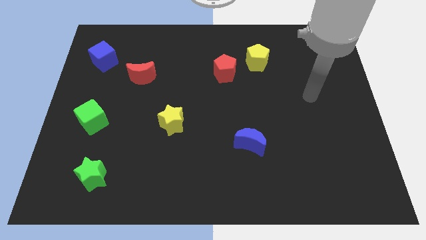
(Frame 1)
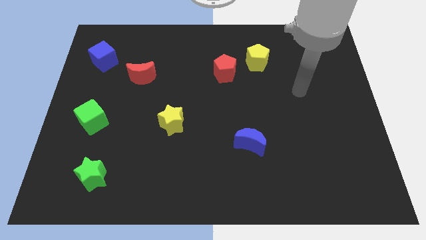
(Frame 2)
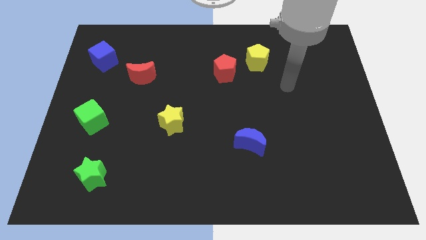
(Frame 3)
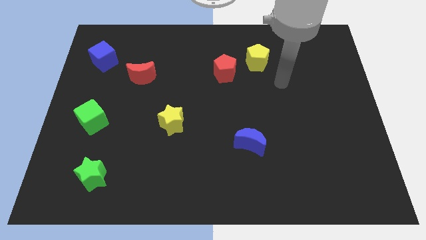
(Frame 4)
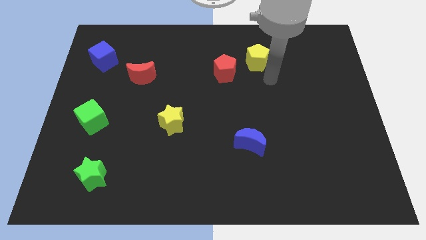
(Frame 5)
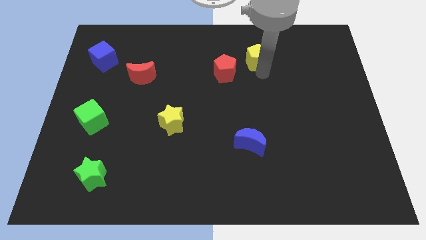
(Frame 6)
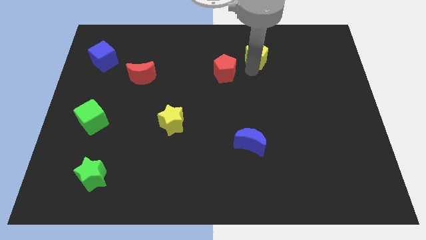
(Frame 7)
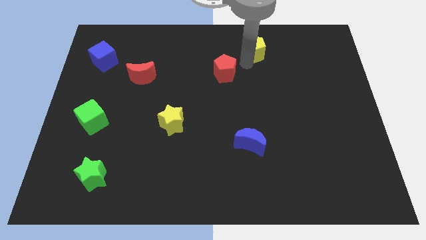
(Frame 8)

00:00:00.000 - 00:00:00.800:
separate the red pentagon from the yellow pentagon

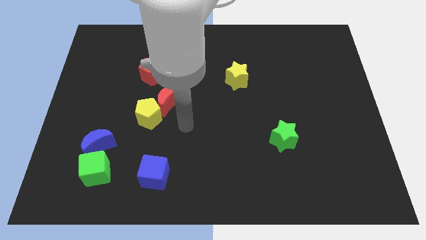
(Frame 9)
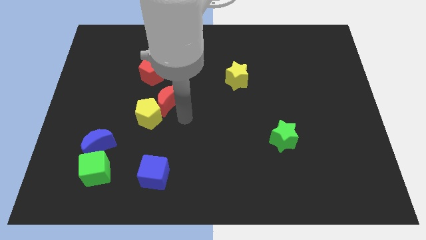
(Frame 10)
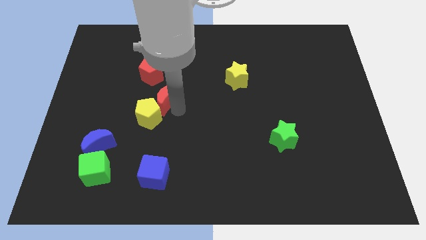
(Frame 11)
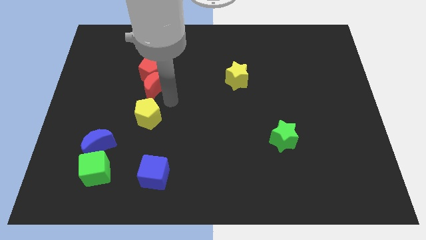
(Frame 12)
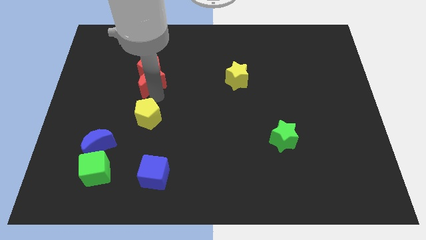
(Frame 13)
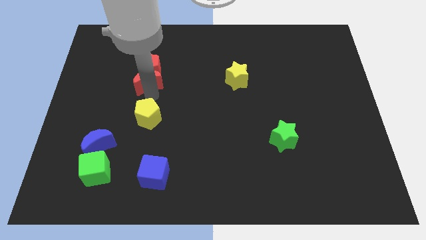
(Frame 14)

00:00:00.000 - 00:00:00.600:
pull the yellow pentagon apart from the red moon

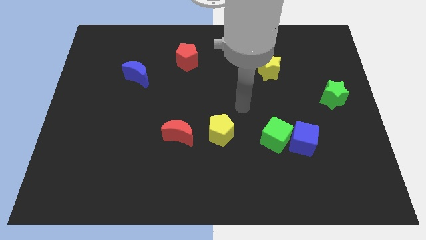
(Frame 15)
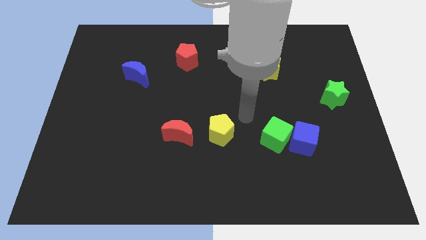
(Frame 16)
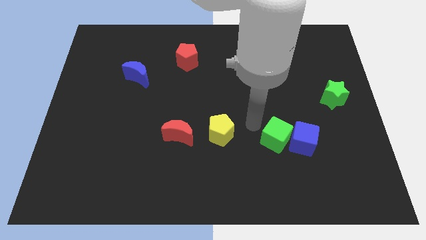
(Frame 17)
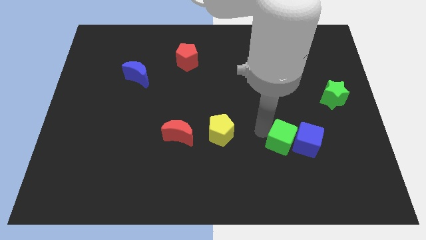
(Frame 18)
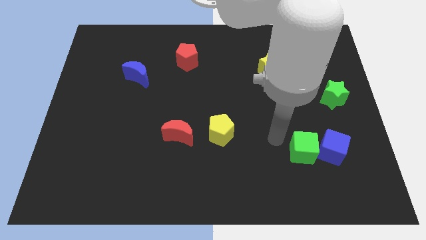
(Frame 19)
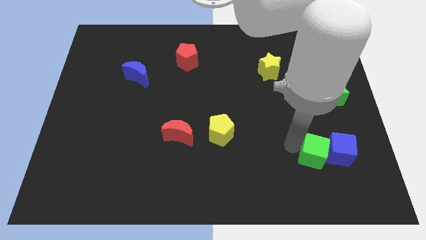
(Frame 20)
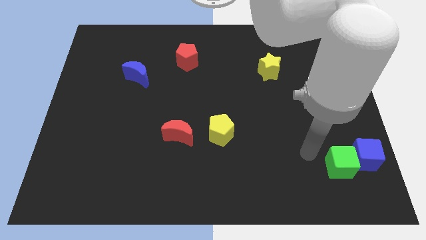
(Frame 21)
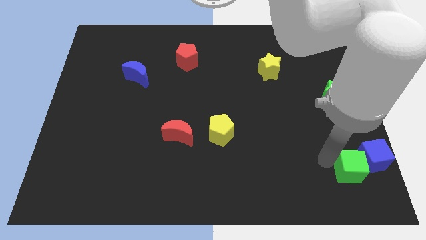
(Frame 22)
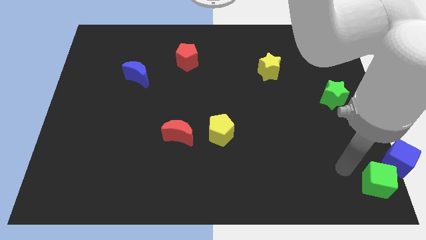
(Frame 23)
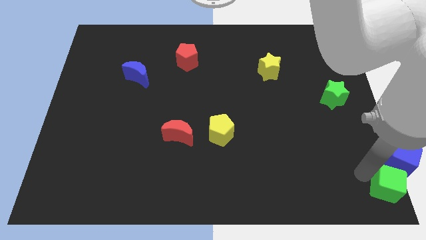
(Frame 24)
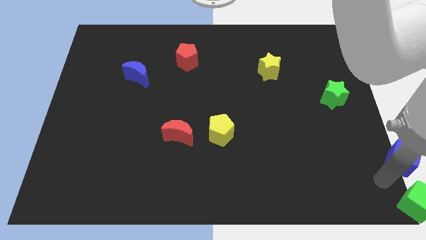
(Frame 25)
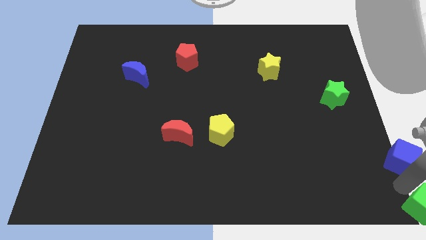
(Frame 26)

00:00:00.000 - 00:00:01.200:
separate the blue cube from the green cube

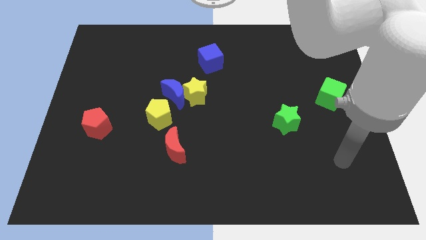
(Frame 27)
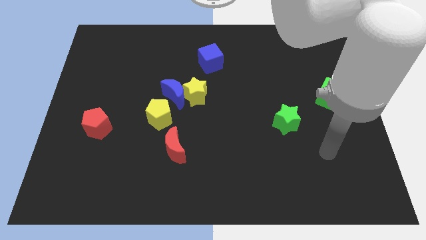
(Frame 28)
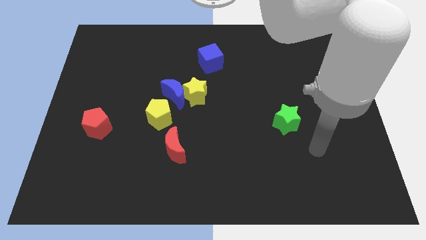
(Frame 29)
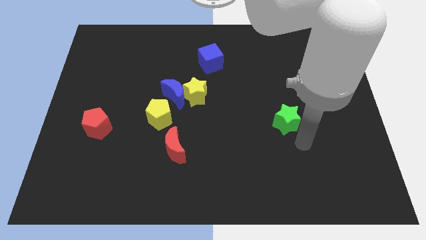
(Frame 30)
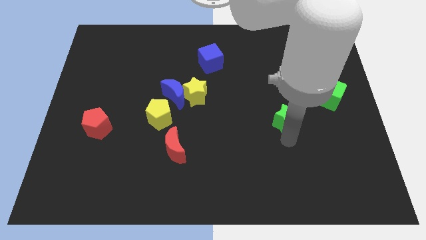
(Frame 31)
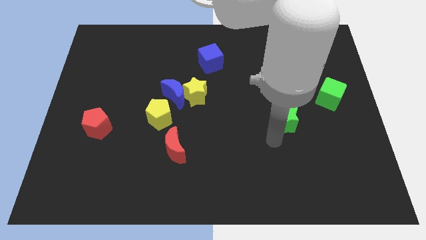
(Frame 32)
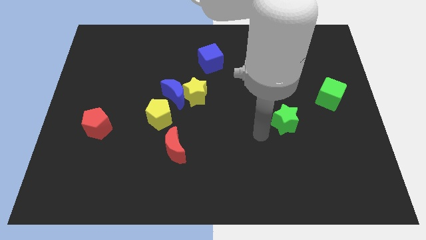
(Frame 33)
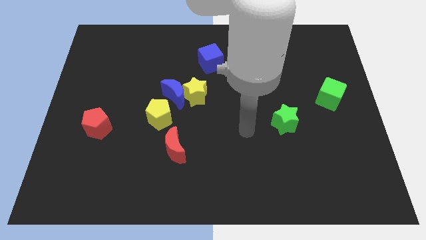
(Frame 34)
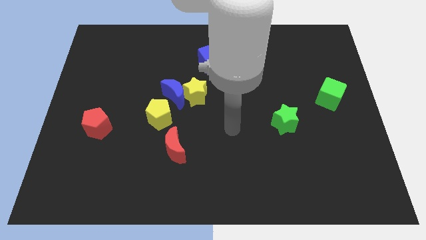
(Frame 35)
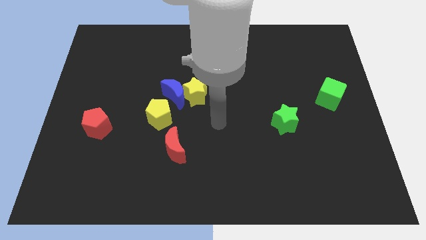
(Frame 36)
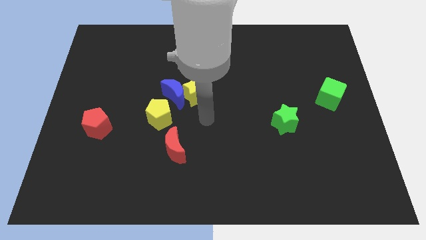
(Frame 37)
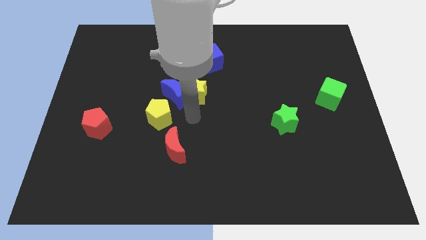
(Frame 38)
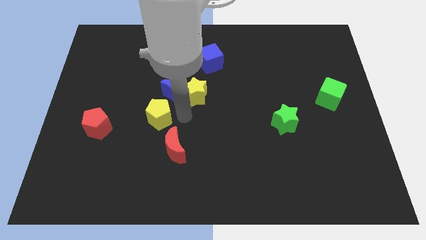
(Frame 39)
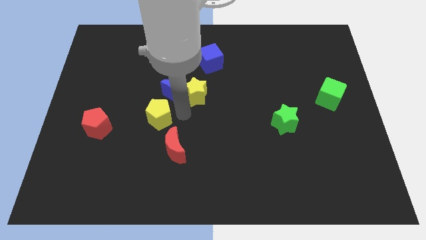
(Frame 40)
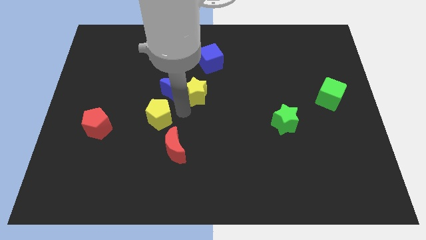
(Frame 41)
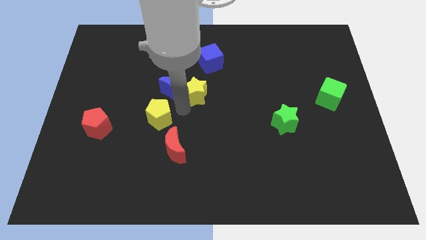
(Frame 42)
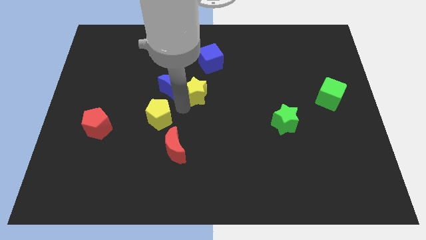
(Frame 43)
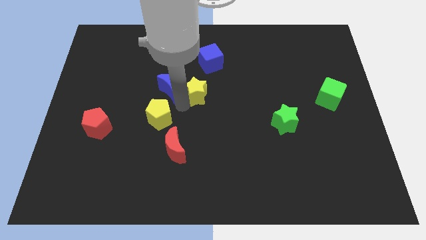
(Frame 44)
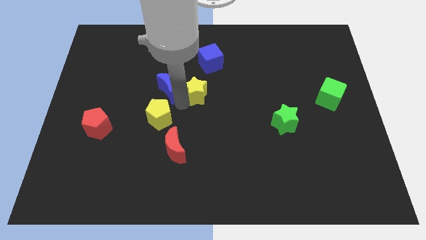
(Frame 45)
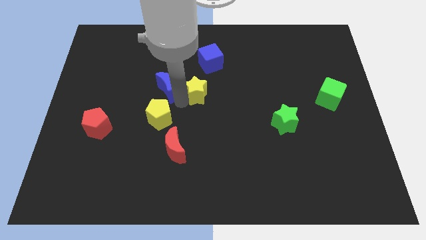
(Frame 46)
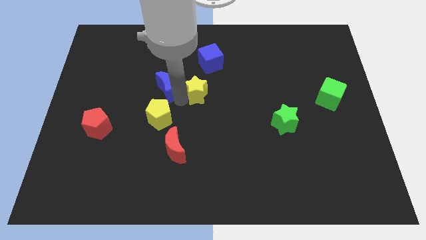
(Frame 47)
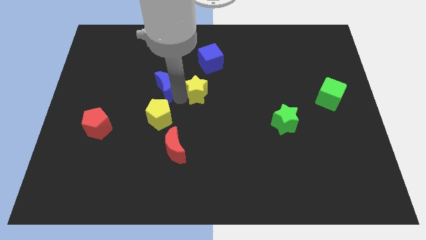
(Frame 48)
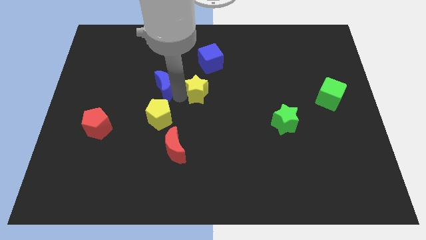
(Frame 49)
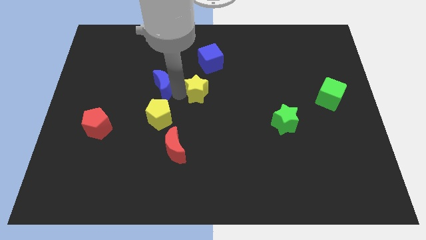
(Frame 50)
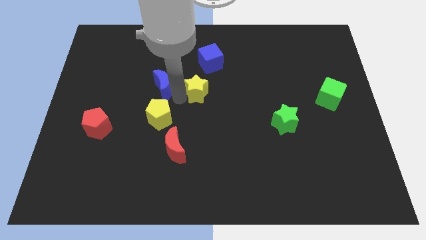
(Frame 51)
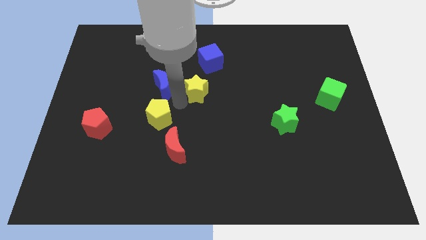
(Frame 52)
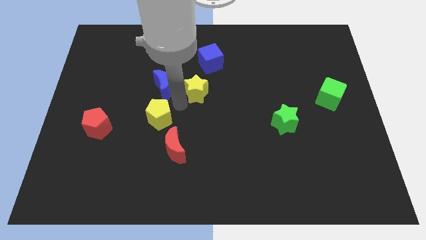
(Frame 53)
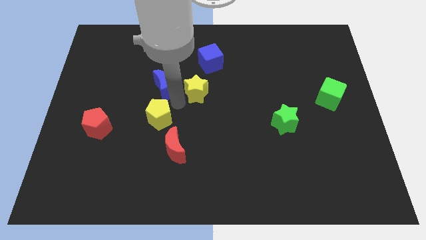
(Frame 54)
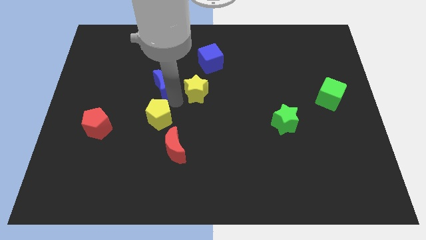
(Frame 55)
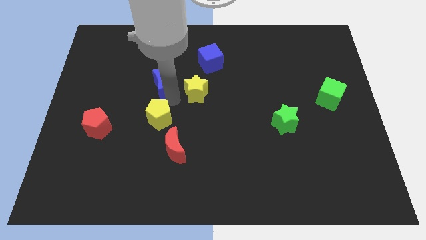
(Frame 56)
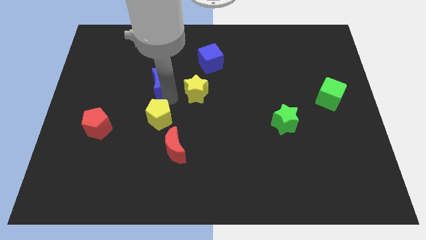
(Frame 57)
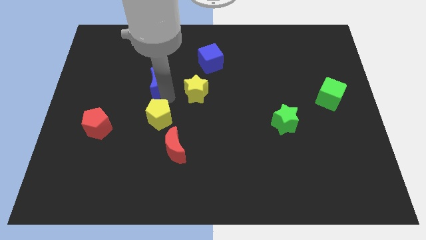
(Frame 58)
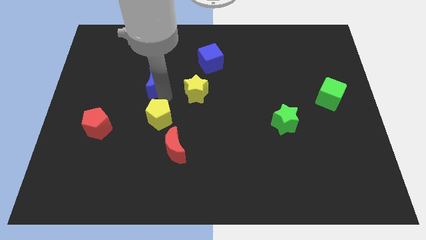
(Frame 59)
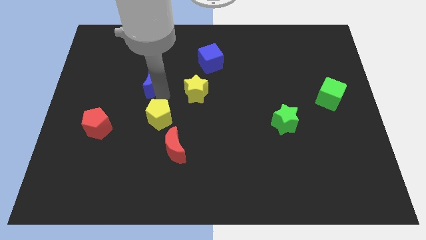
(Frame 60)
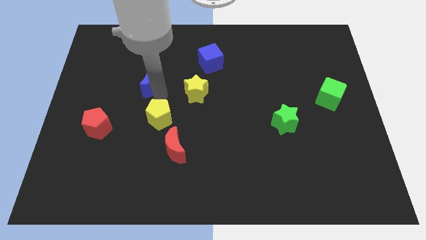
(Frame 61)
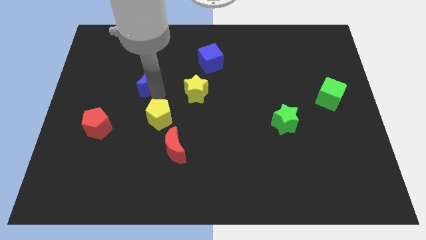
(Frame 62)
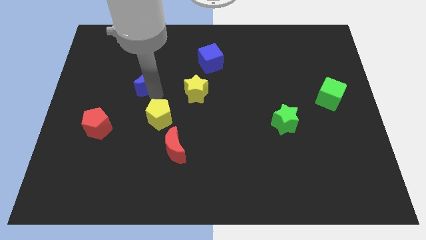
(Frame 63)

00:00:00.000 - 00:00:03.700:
move the blue moon away from the yellow star and yellow pentagon

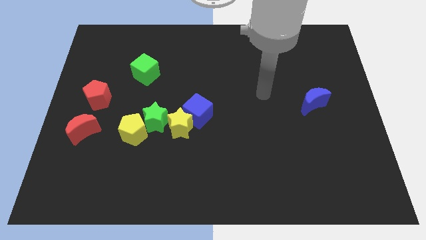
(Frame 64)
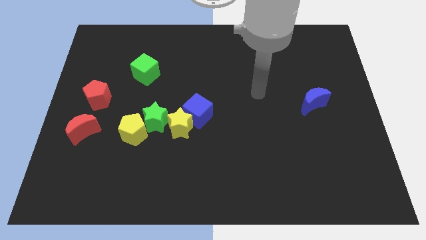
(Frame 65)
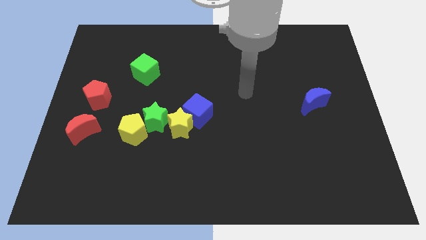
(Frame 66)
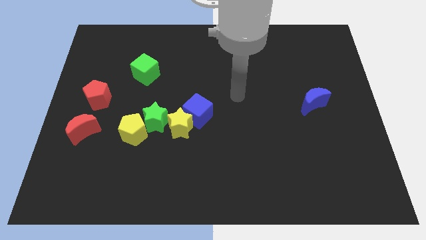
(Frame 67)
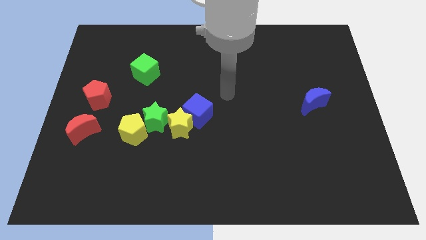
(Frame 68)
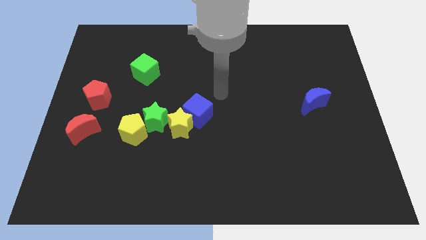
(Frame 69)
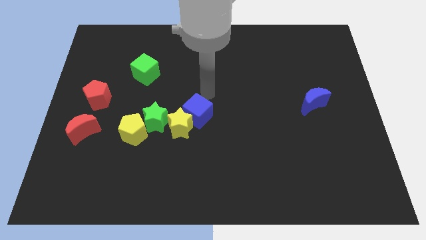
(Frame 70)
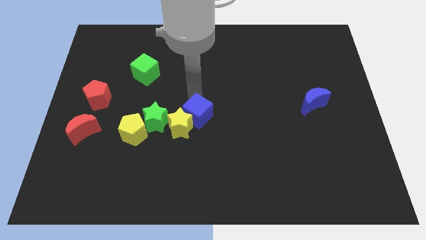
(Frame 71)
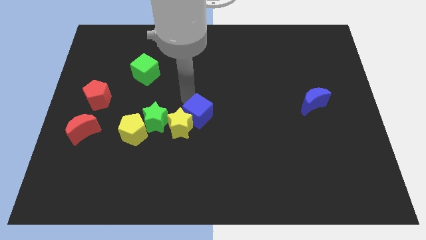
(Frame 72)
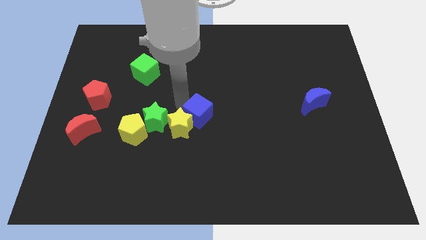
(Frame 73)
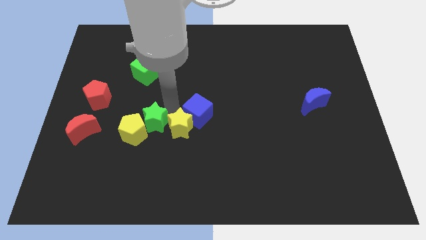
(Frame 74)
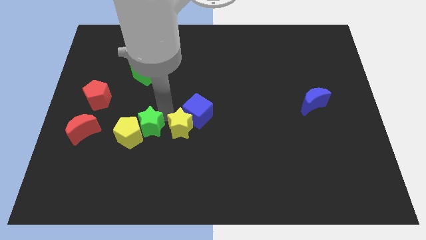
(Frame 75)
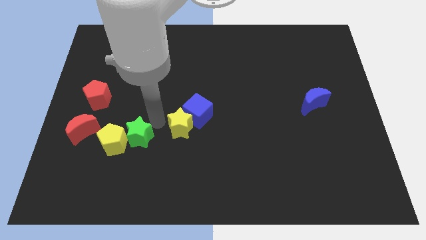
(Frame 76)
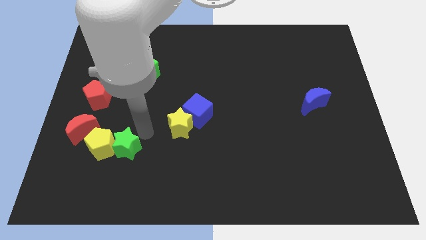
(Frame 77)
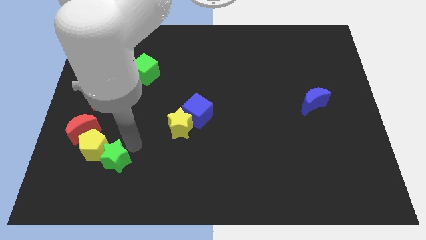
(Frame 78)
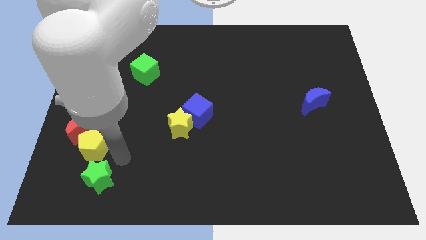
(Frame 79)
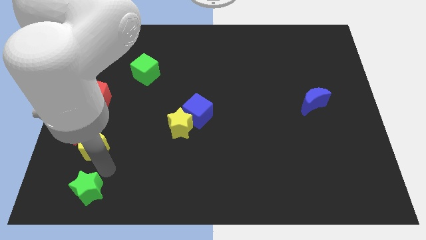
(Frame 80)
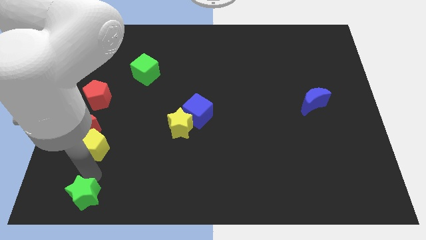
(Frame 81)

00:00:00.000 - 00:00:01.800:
move the yellow pentagon away from the green star

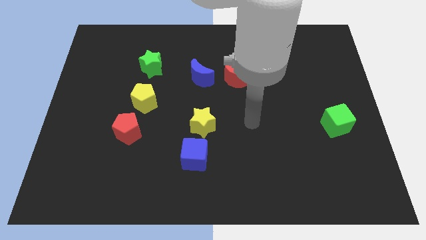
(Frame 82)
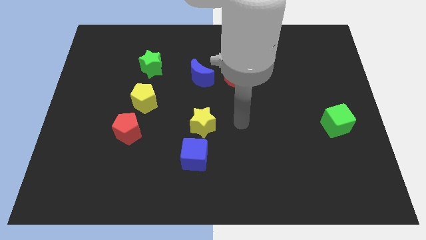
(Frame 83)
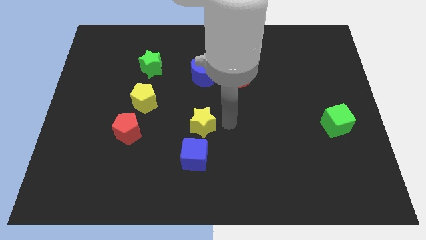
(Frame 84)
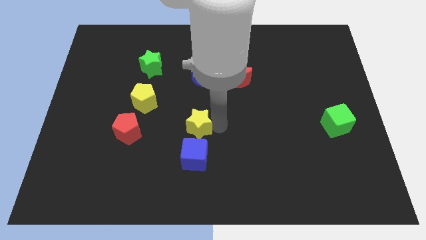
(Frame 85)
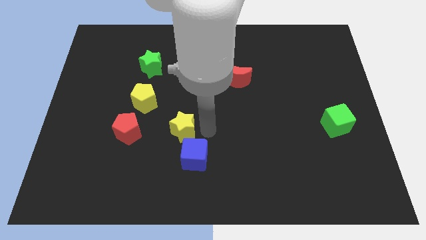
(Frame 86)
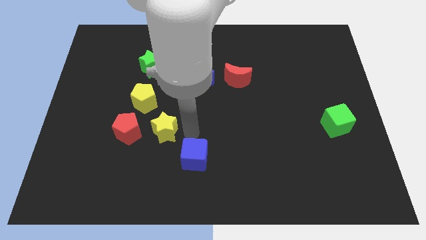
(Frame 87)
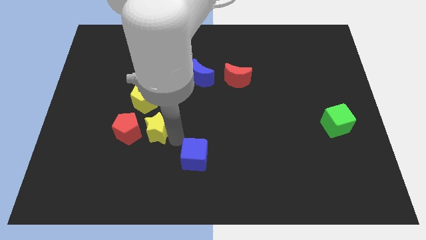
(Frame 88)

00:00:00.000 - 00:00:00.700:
pull the blue cube apart from the yellow star

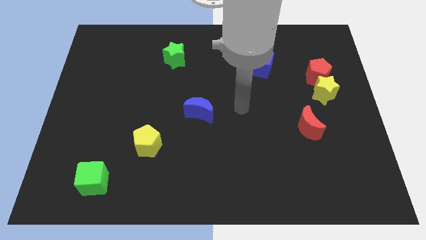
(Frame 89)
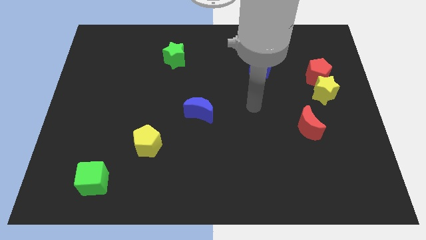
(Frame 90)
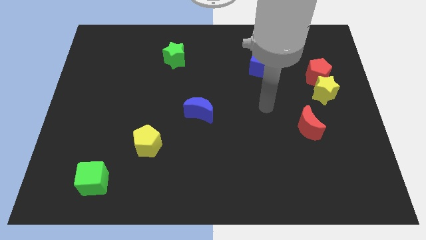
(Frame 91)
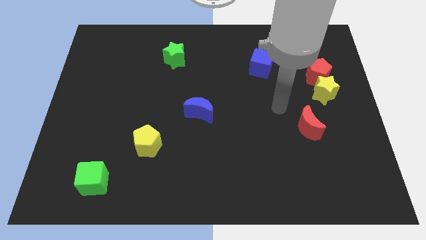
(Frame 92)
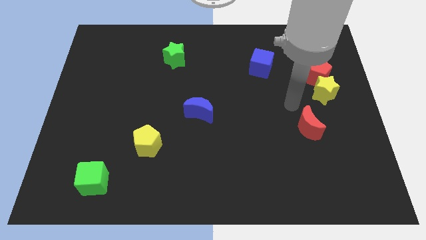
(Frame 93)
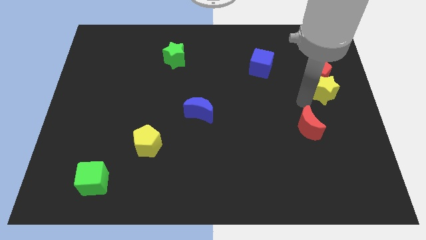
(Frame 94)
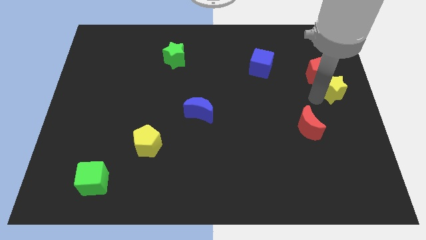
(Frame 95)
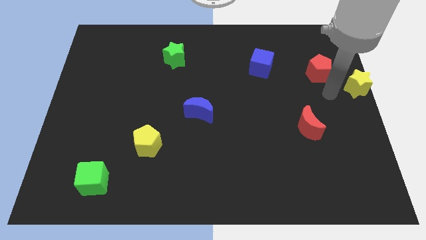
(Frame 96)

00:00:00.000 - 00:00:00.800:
separate the red pentagon from the yellow star
